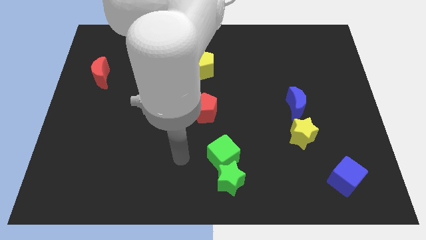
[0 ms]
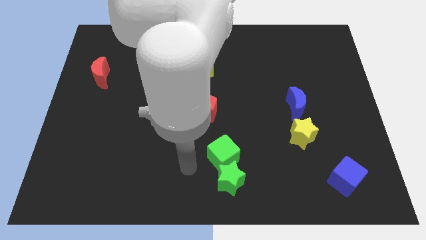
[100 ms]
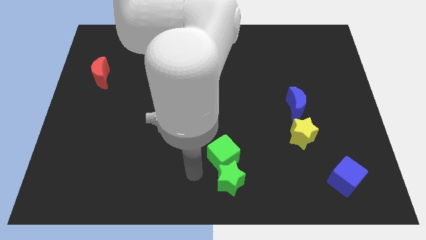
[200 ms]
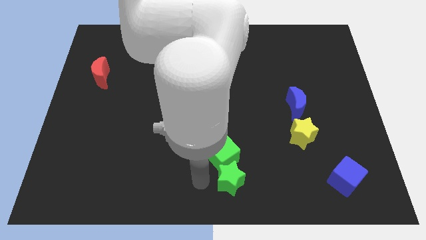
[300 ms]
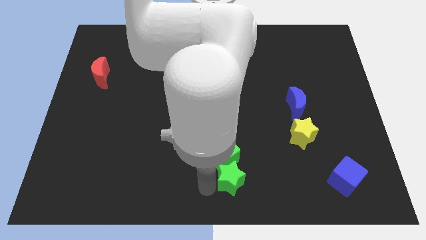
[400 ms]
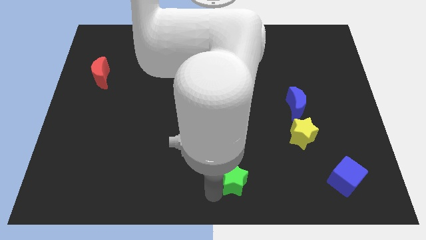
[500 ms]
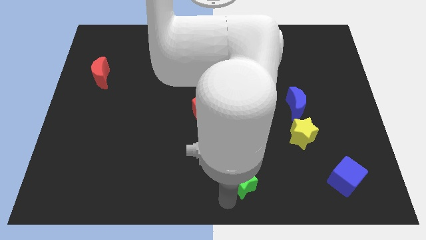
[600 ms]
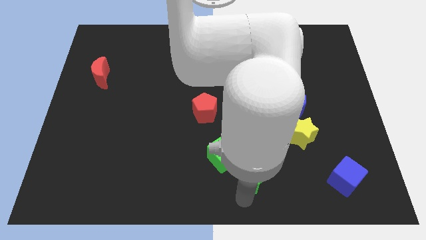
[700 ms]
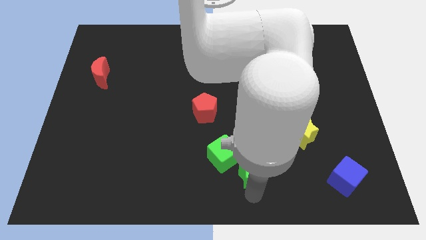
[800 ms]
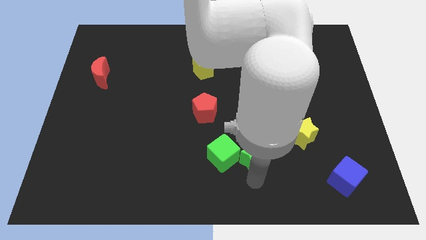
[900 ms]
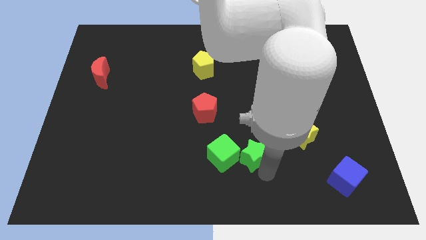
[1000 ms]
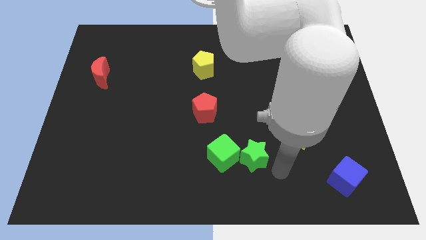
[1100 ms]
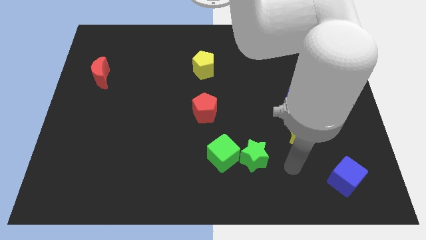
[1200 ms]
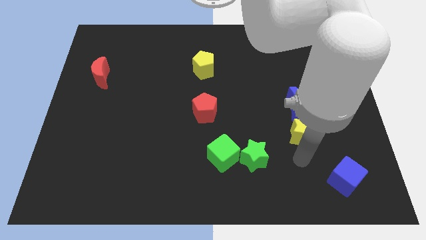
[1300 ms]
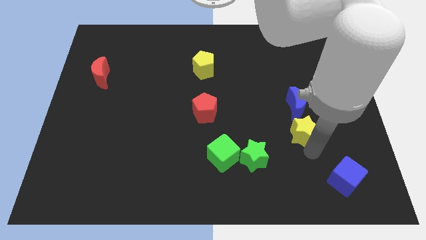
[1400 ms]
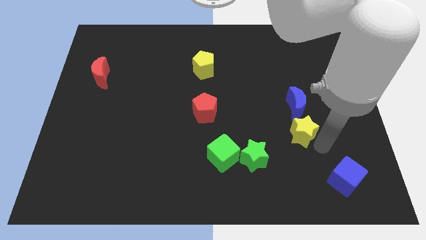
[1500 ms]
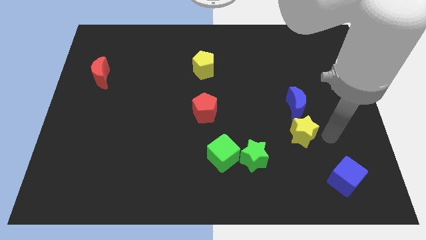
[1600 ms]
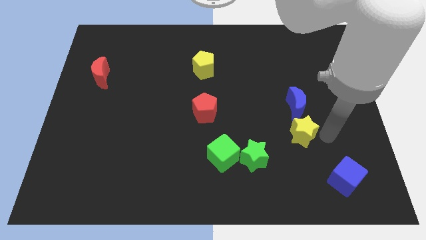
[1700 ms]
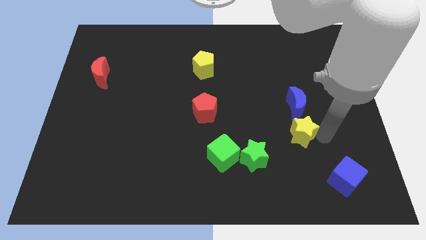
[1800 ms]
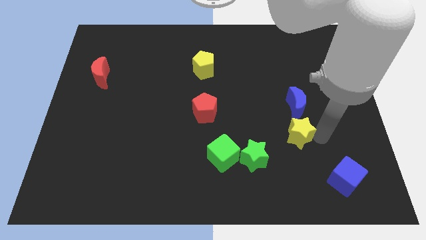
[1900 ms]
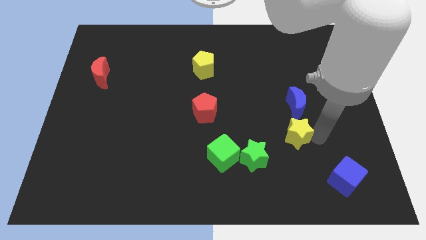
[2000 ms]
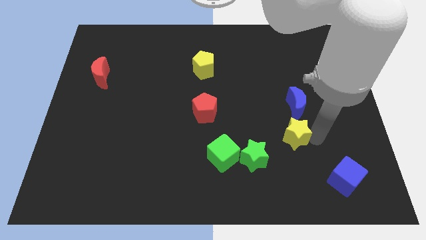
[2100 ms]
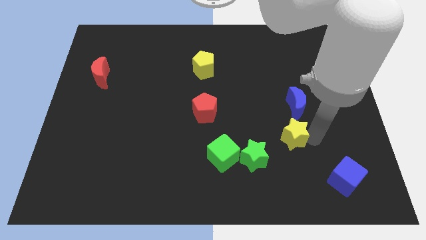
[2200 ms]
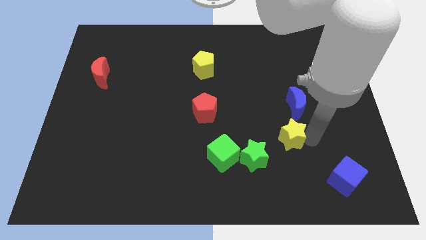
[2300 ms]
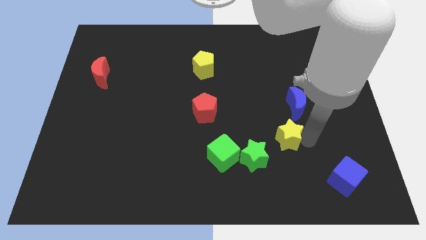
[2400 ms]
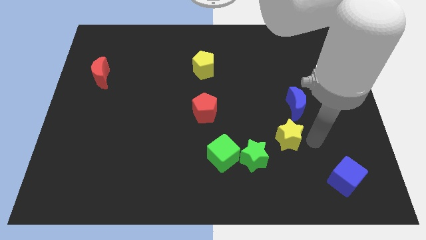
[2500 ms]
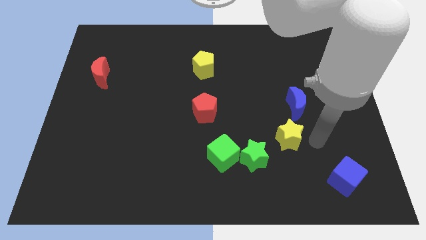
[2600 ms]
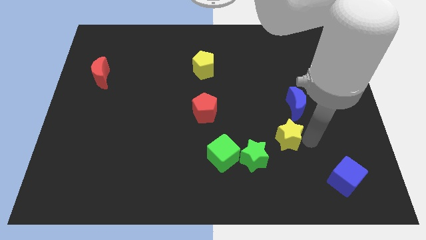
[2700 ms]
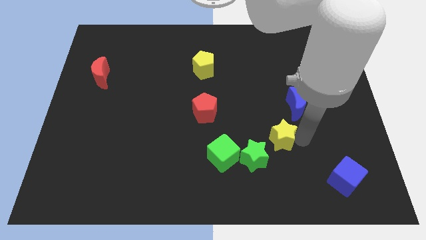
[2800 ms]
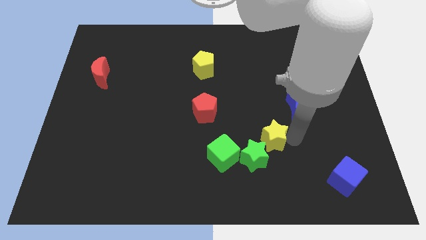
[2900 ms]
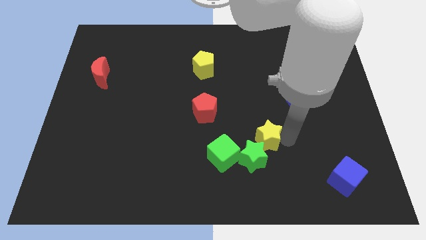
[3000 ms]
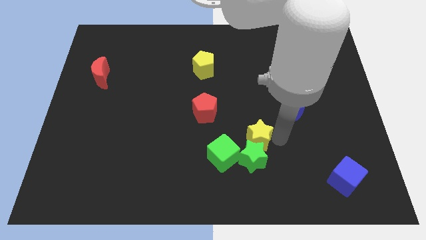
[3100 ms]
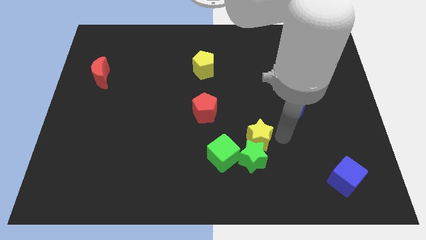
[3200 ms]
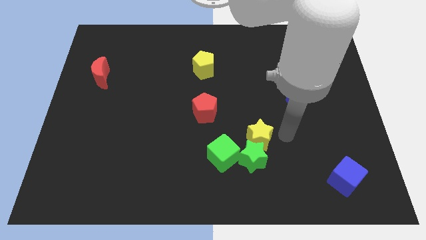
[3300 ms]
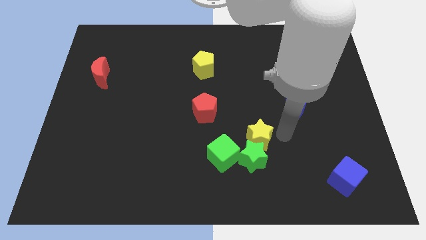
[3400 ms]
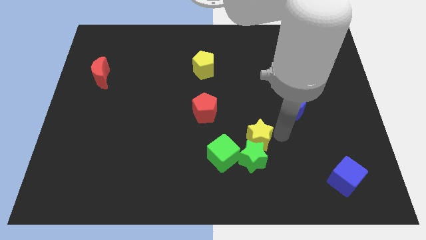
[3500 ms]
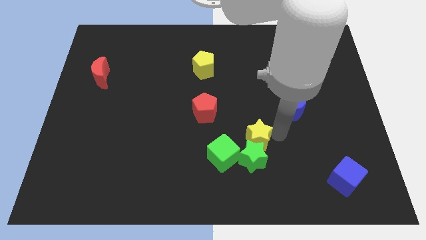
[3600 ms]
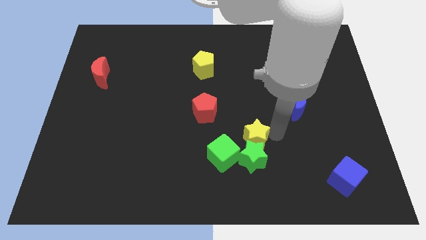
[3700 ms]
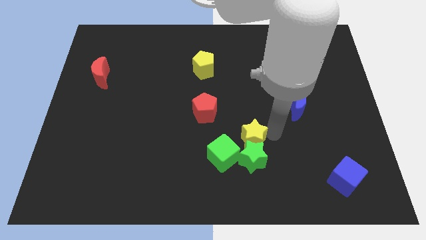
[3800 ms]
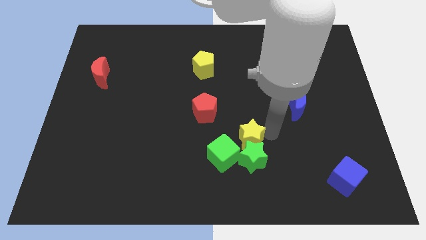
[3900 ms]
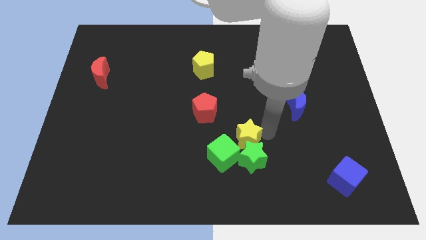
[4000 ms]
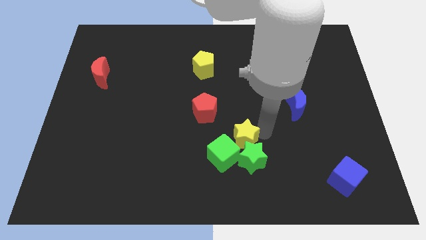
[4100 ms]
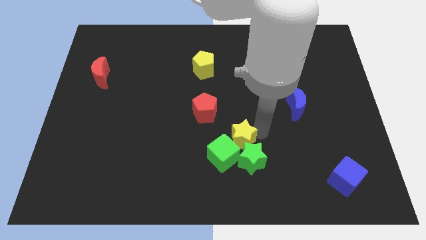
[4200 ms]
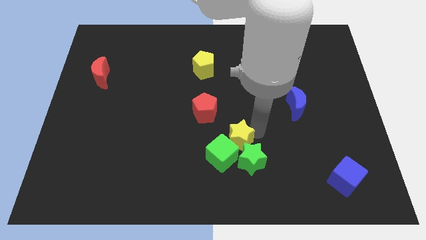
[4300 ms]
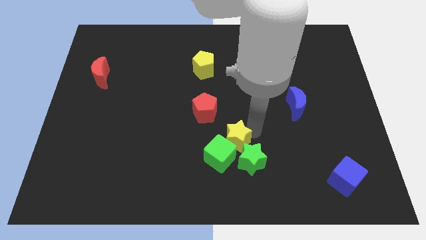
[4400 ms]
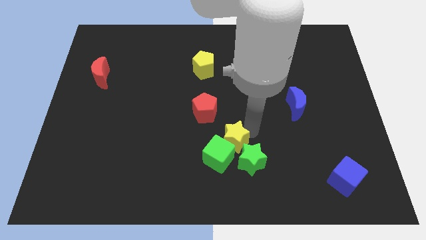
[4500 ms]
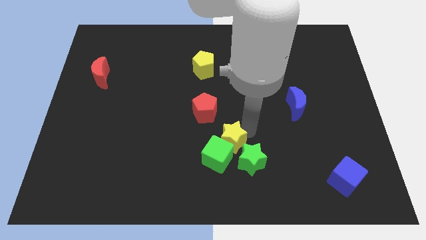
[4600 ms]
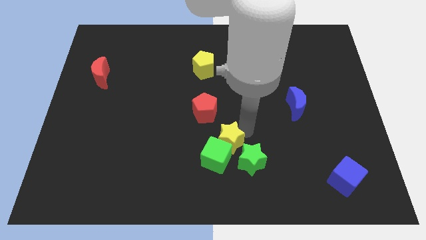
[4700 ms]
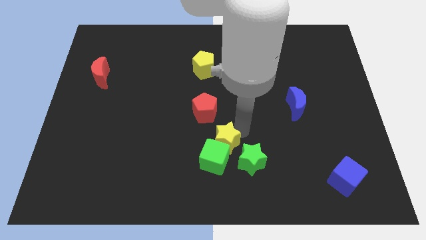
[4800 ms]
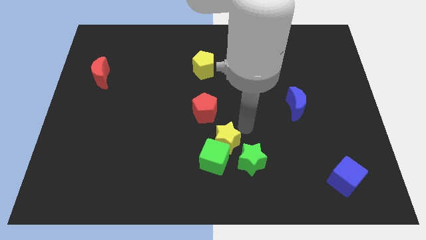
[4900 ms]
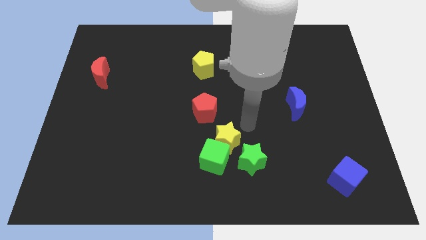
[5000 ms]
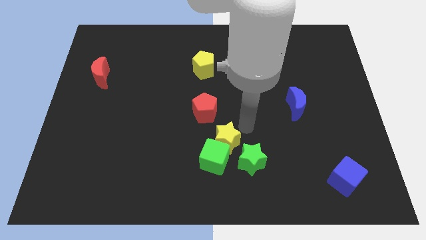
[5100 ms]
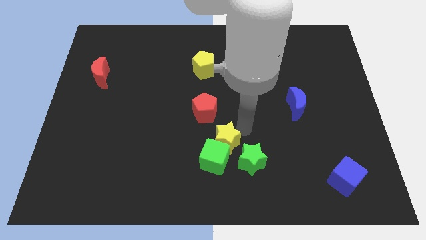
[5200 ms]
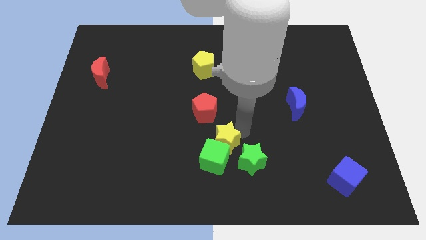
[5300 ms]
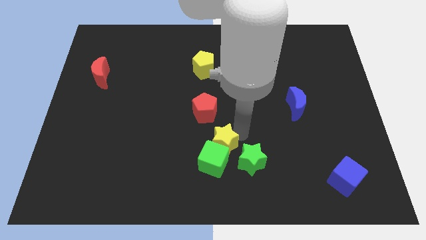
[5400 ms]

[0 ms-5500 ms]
move the yellow star to the left of the green star

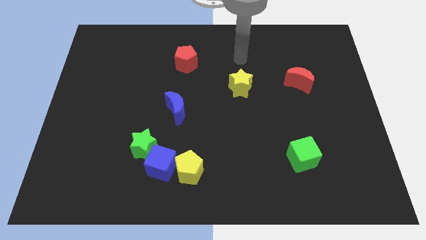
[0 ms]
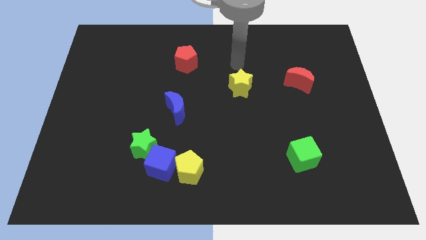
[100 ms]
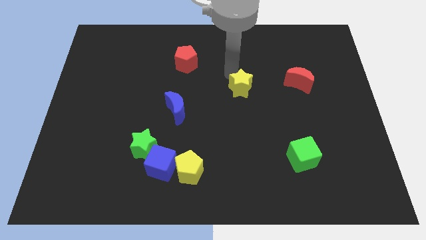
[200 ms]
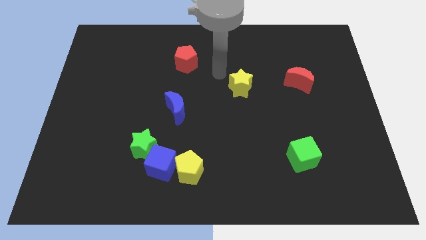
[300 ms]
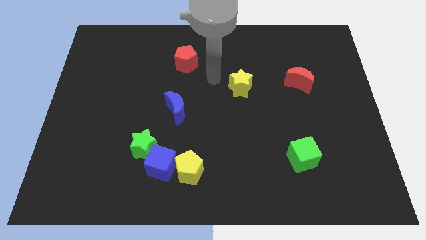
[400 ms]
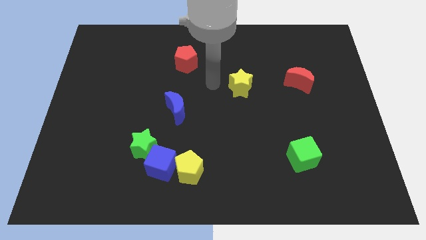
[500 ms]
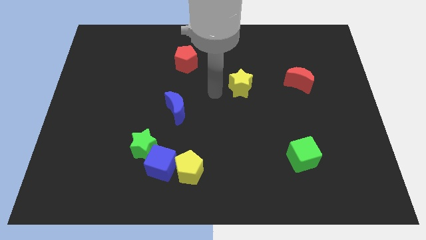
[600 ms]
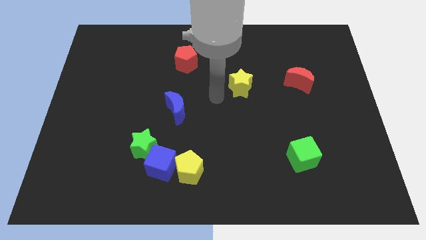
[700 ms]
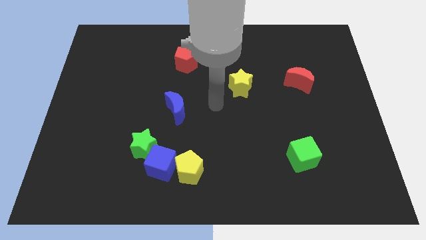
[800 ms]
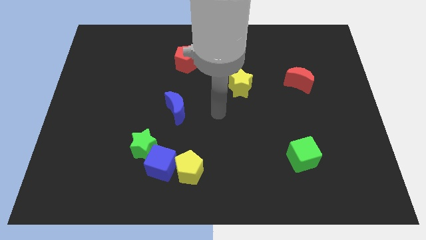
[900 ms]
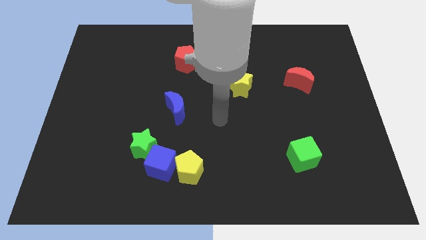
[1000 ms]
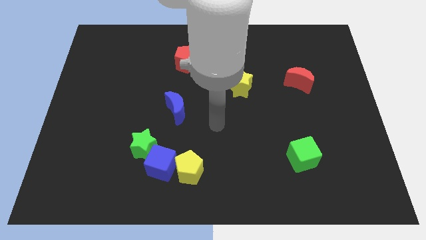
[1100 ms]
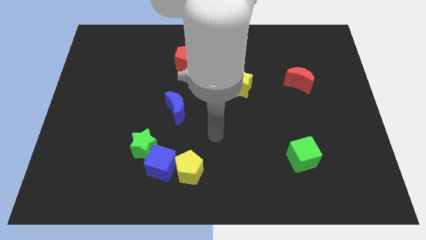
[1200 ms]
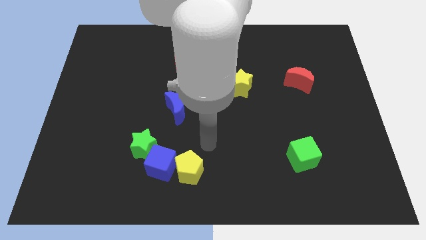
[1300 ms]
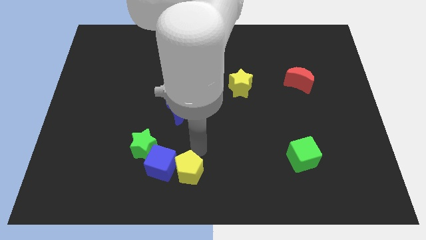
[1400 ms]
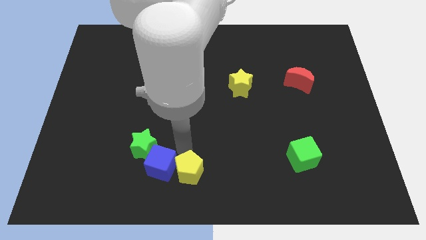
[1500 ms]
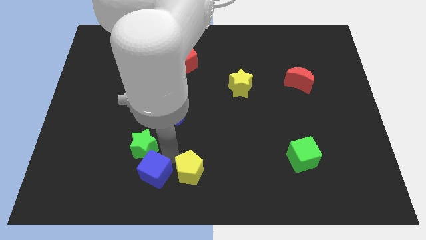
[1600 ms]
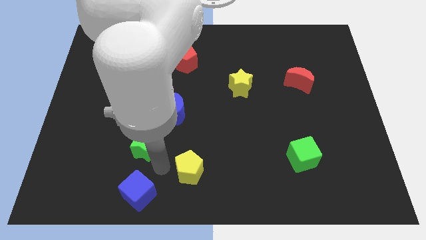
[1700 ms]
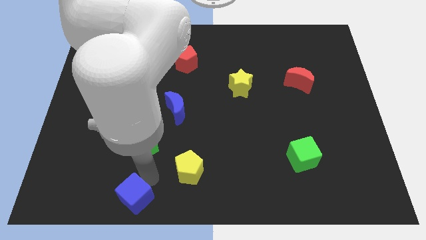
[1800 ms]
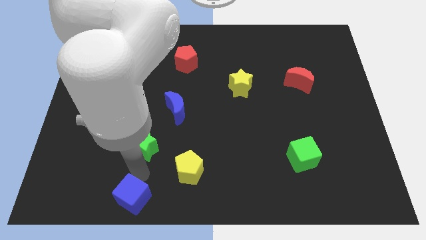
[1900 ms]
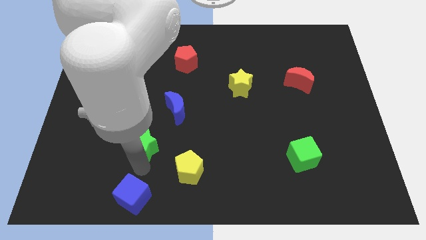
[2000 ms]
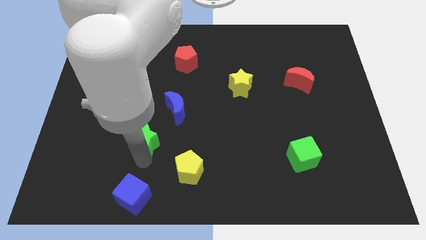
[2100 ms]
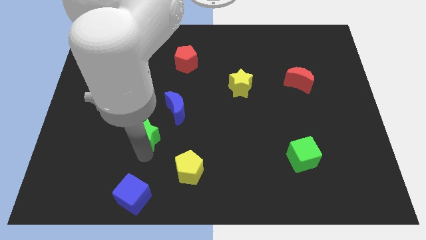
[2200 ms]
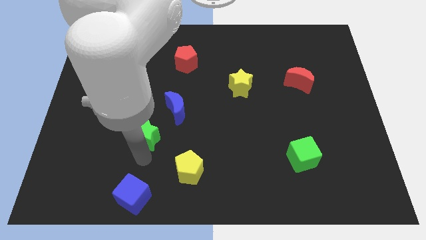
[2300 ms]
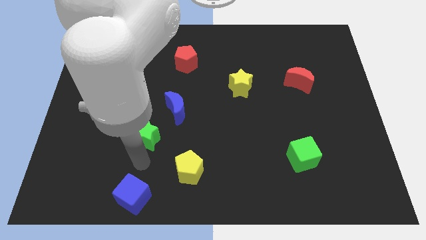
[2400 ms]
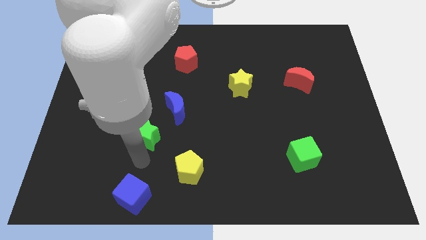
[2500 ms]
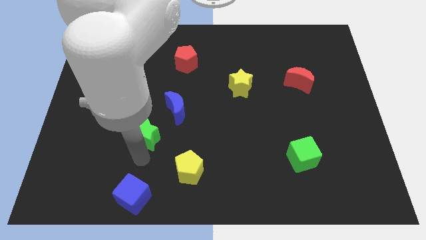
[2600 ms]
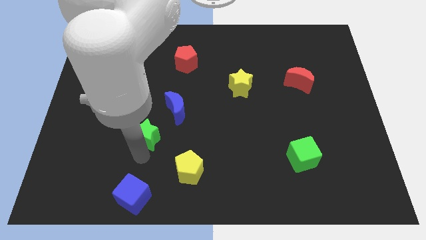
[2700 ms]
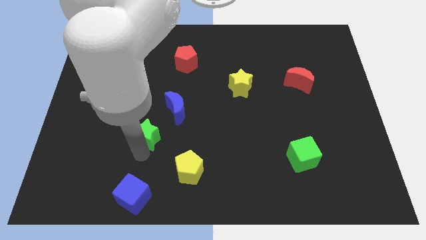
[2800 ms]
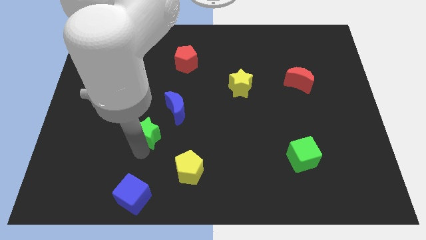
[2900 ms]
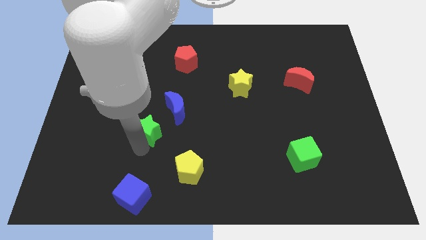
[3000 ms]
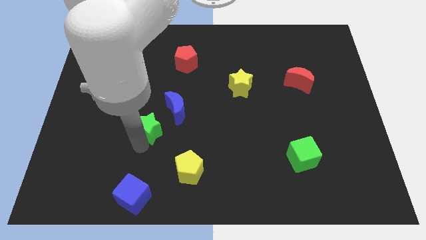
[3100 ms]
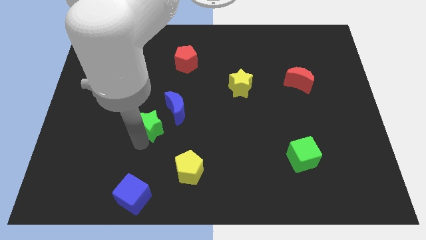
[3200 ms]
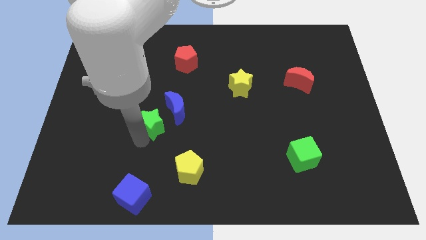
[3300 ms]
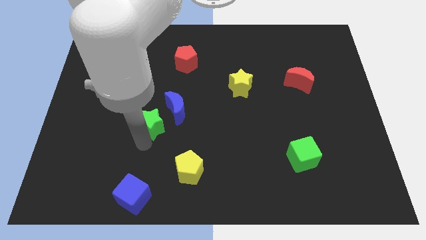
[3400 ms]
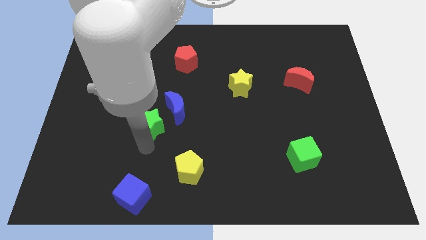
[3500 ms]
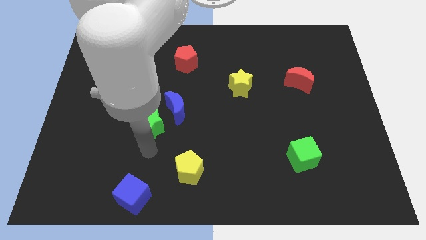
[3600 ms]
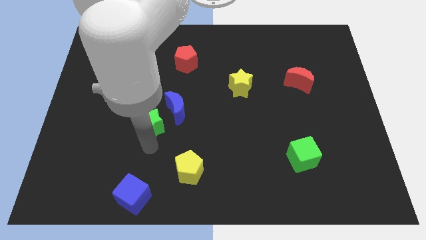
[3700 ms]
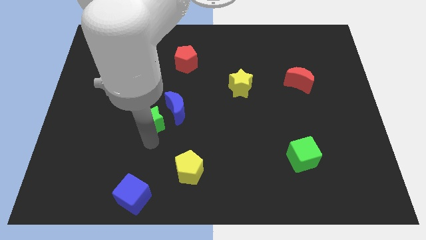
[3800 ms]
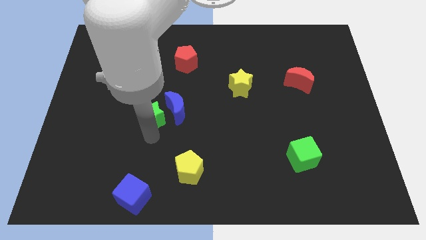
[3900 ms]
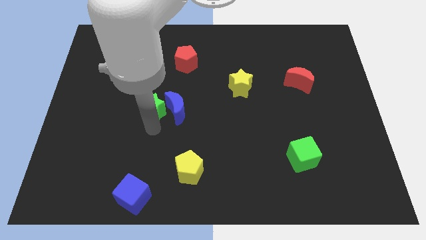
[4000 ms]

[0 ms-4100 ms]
slide the green star diagonally up and to the left of the blue moon
